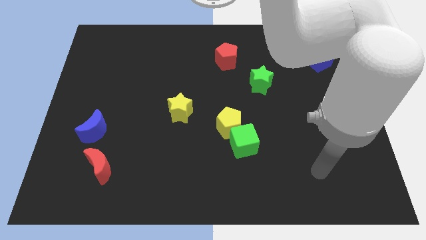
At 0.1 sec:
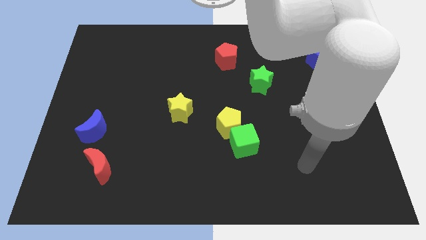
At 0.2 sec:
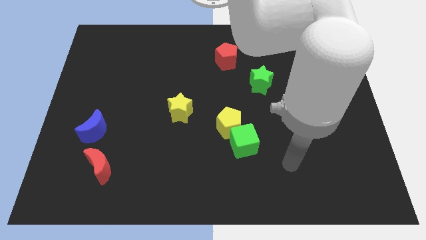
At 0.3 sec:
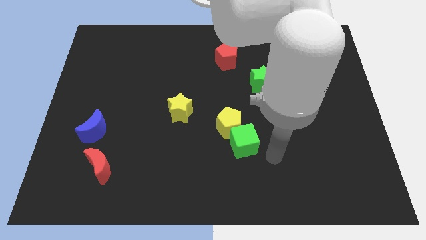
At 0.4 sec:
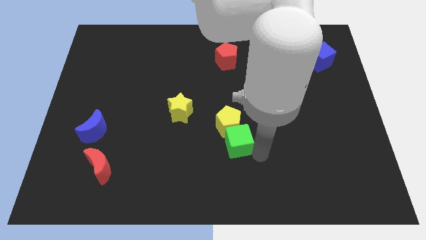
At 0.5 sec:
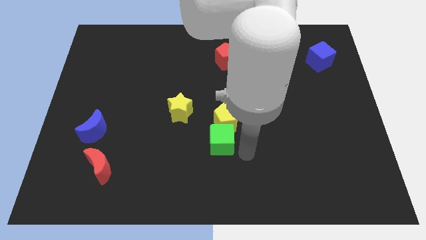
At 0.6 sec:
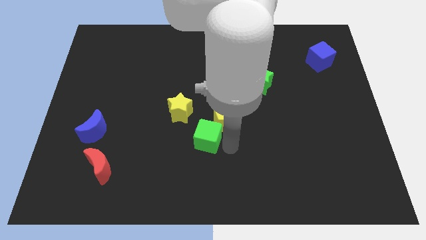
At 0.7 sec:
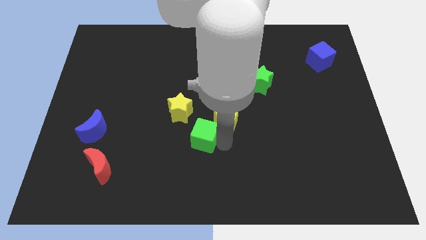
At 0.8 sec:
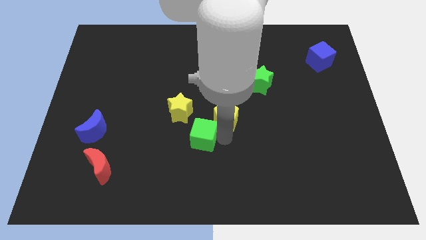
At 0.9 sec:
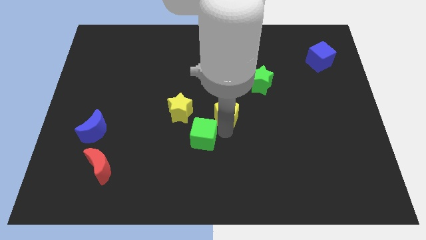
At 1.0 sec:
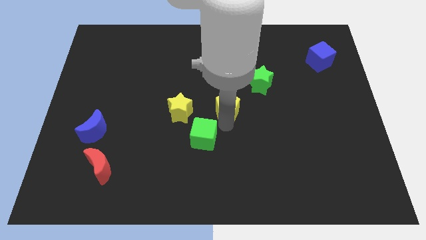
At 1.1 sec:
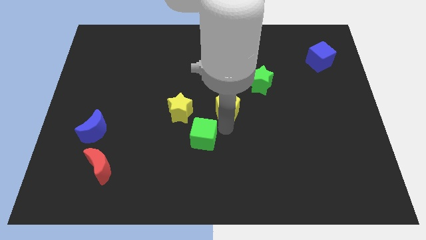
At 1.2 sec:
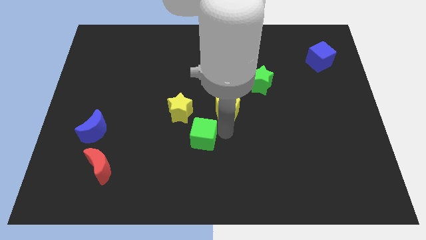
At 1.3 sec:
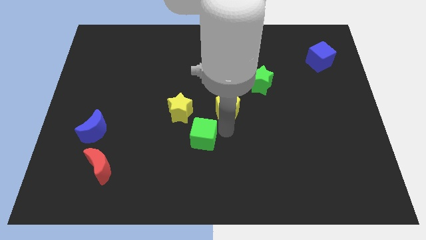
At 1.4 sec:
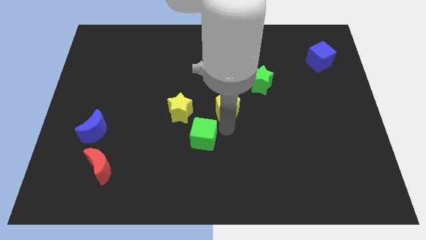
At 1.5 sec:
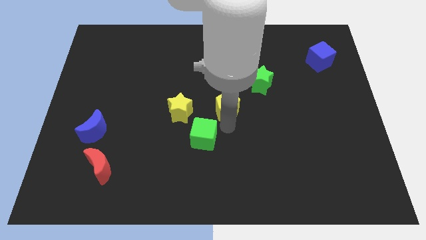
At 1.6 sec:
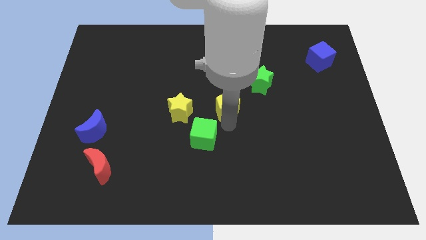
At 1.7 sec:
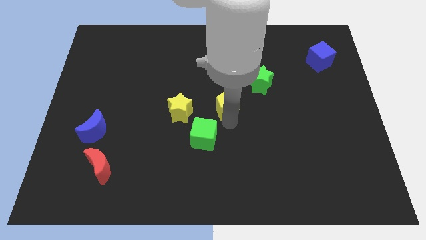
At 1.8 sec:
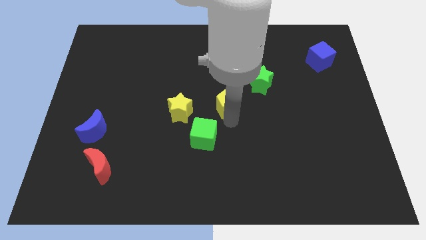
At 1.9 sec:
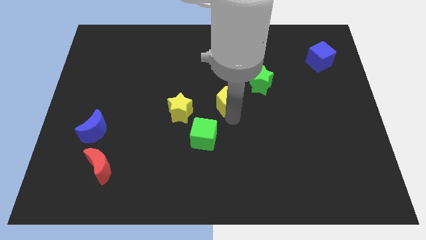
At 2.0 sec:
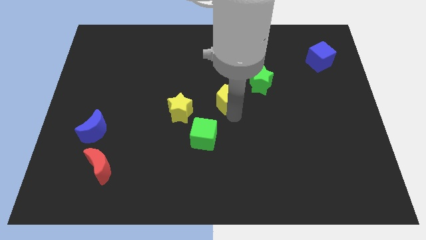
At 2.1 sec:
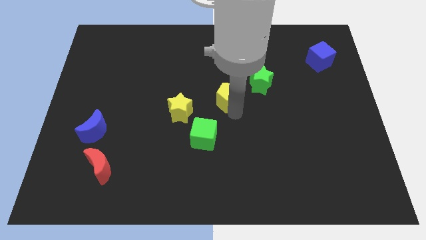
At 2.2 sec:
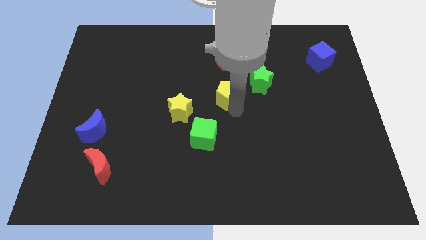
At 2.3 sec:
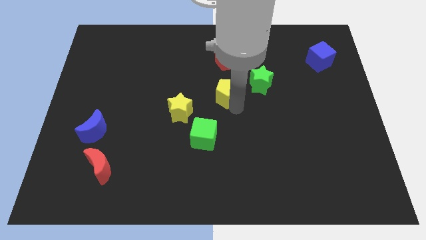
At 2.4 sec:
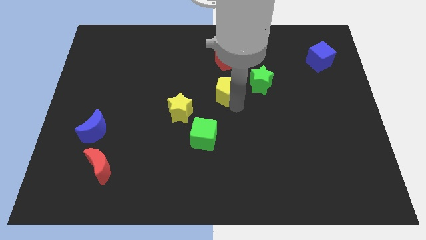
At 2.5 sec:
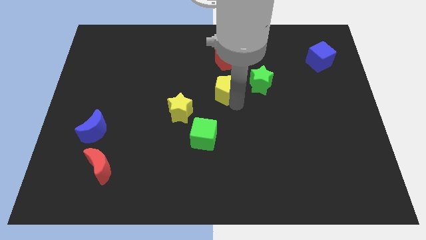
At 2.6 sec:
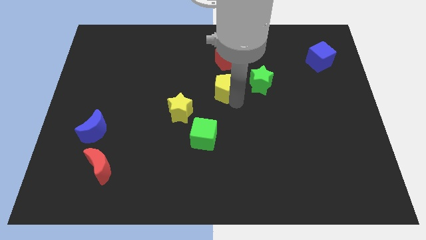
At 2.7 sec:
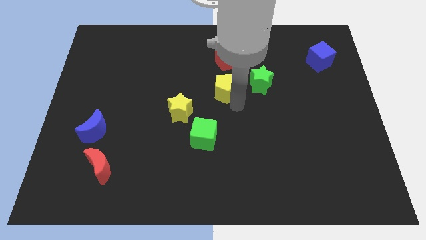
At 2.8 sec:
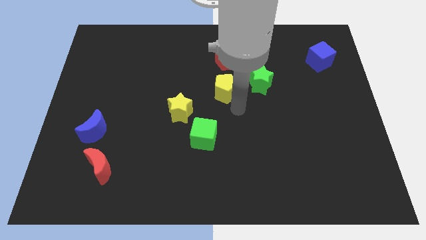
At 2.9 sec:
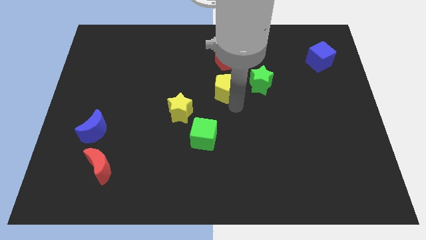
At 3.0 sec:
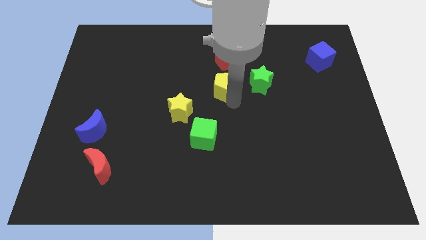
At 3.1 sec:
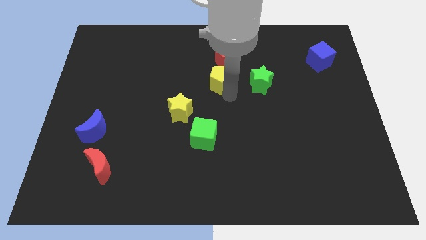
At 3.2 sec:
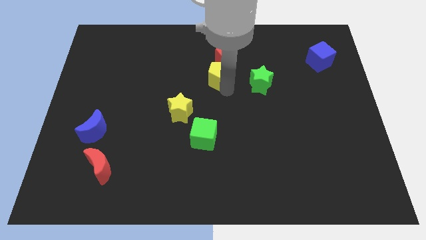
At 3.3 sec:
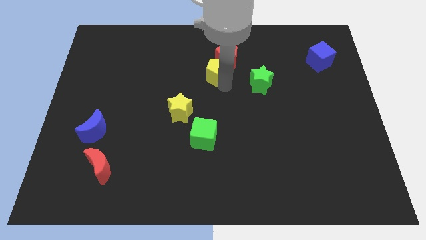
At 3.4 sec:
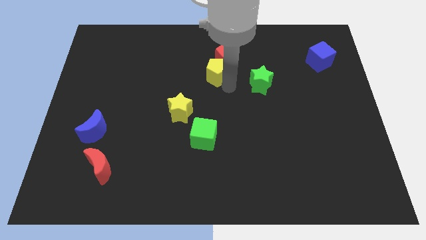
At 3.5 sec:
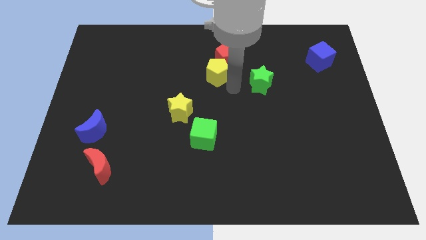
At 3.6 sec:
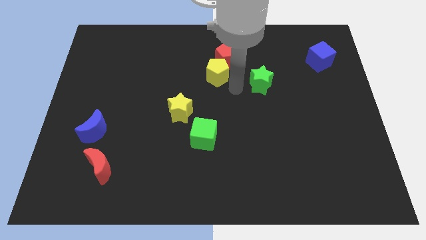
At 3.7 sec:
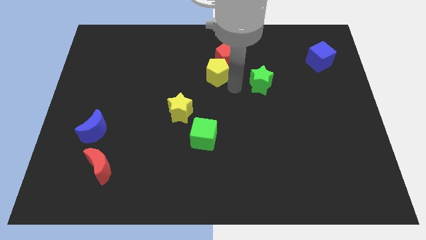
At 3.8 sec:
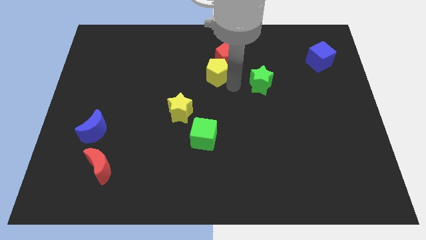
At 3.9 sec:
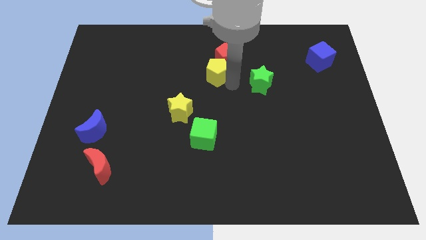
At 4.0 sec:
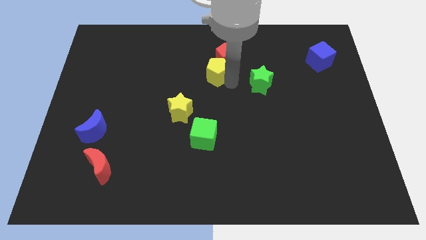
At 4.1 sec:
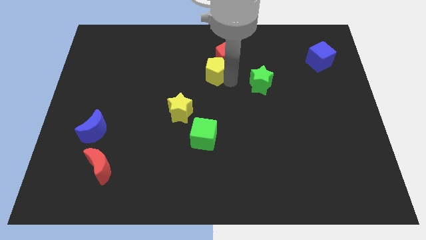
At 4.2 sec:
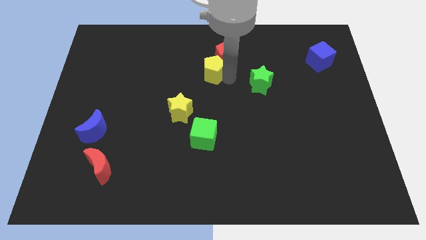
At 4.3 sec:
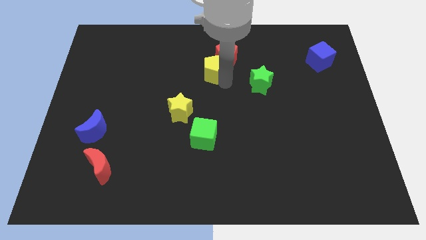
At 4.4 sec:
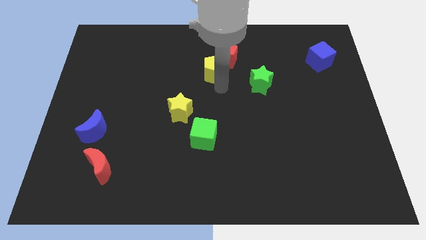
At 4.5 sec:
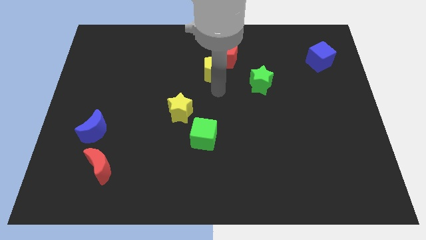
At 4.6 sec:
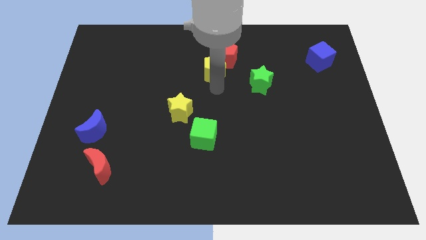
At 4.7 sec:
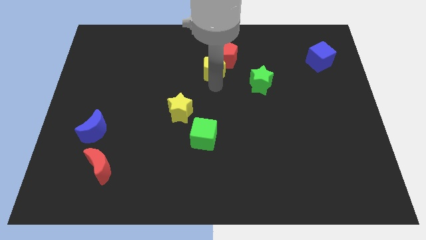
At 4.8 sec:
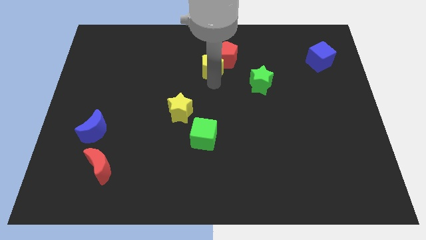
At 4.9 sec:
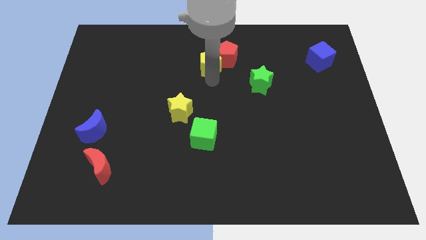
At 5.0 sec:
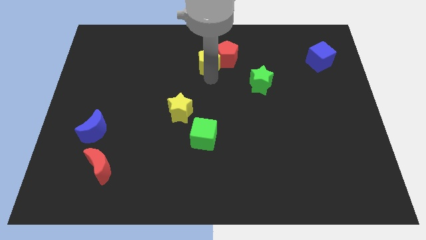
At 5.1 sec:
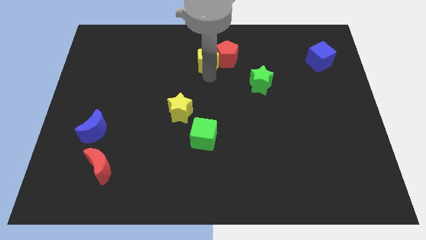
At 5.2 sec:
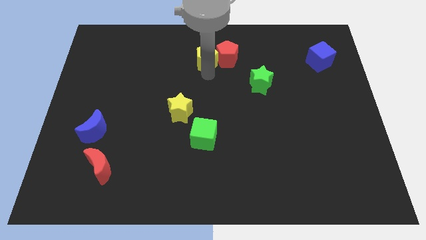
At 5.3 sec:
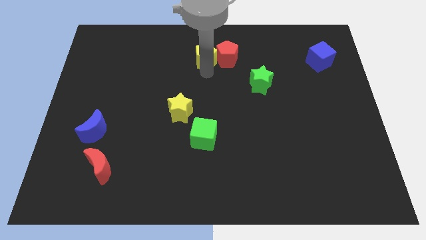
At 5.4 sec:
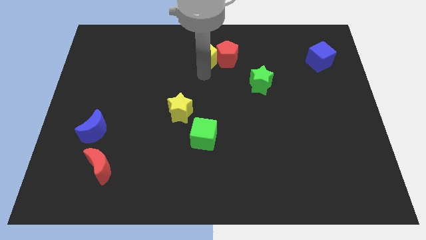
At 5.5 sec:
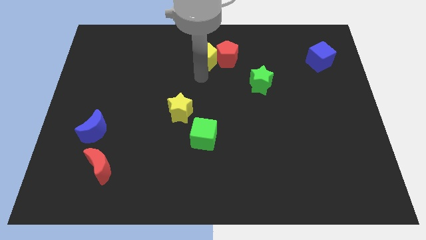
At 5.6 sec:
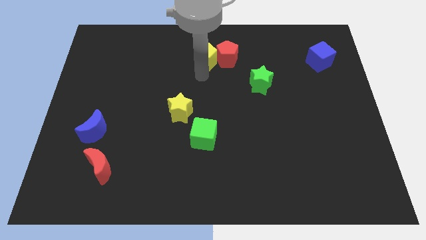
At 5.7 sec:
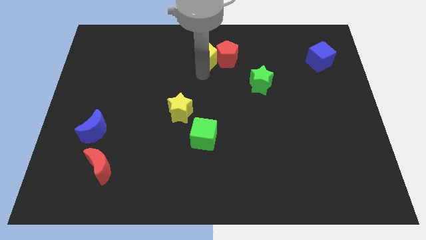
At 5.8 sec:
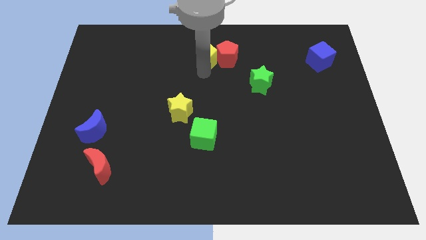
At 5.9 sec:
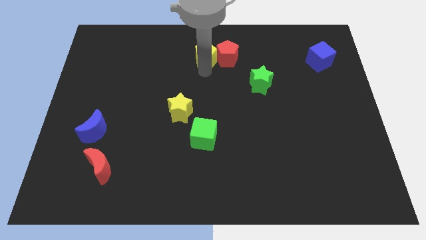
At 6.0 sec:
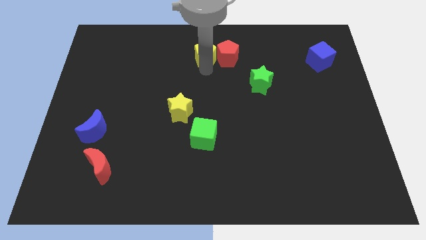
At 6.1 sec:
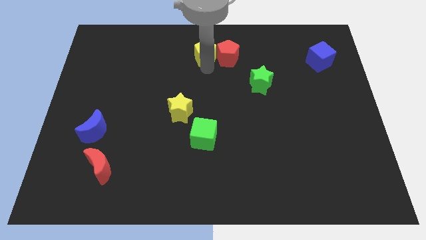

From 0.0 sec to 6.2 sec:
push the yellow pentagon to the towards your base

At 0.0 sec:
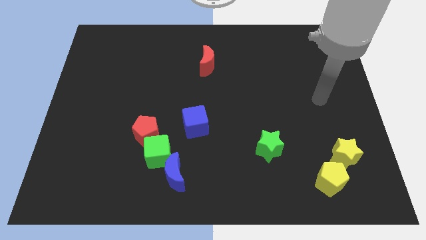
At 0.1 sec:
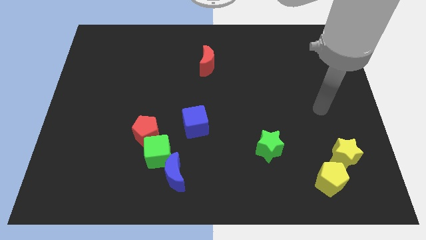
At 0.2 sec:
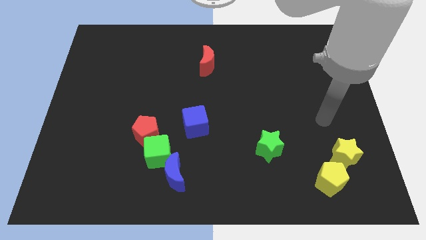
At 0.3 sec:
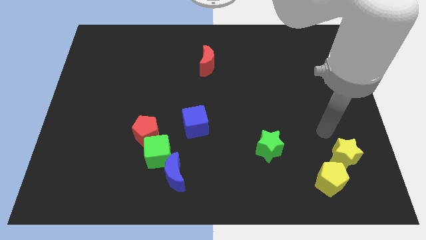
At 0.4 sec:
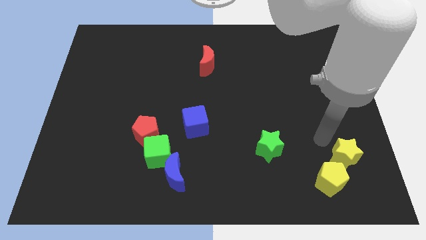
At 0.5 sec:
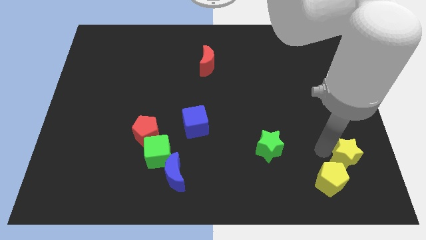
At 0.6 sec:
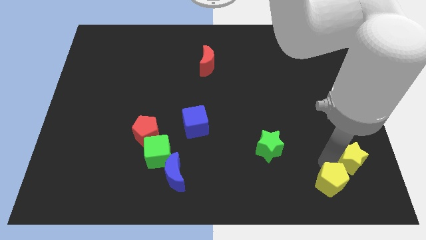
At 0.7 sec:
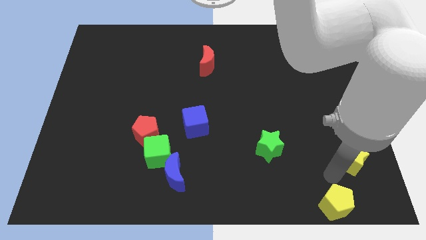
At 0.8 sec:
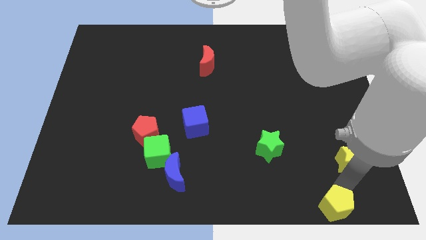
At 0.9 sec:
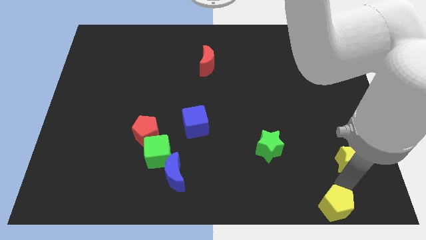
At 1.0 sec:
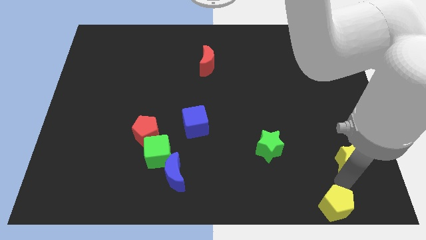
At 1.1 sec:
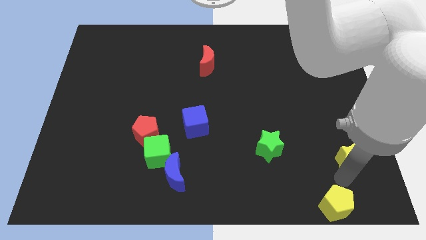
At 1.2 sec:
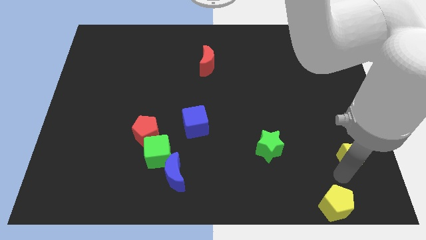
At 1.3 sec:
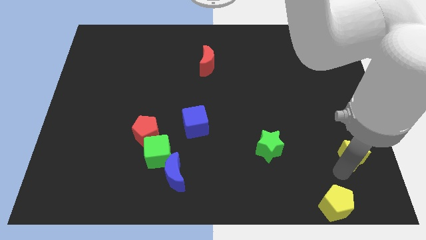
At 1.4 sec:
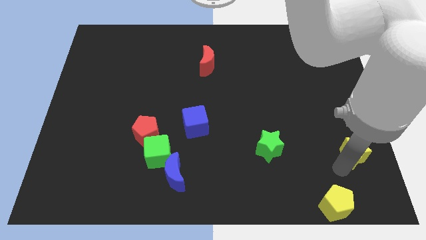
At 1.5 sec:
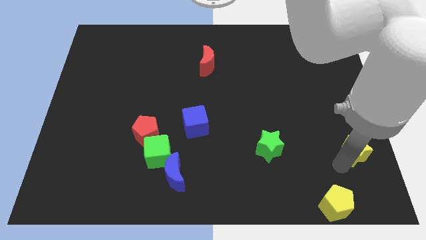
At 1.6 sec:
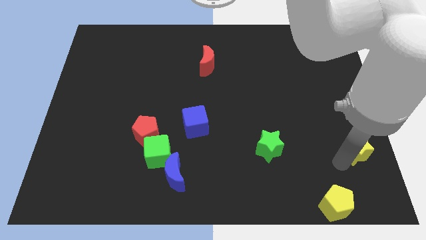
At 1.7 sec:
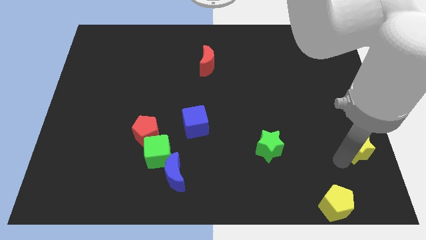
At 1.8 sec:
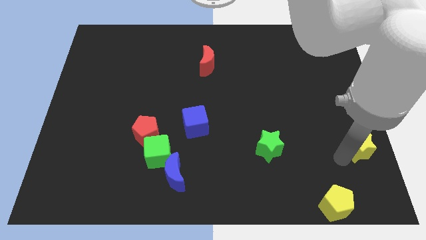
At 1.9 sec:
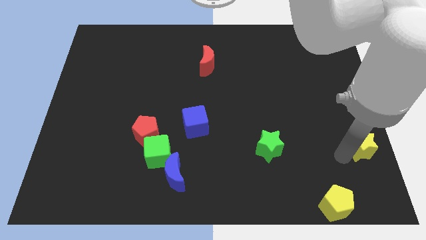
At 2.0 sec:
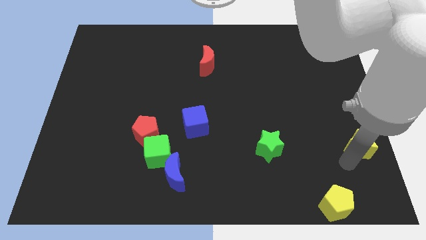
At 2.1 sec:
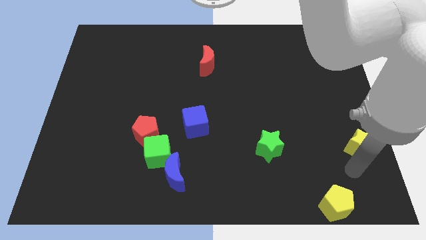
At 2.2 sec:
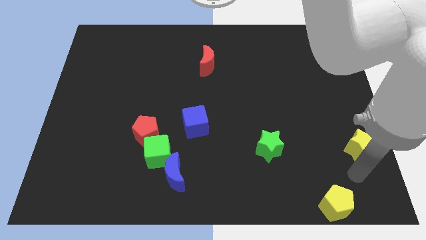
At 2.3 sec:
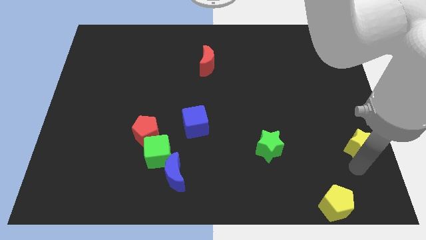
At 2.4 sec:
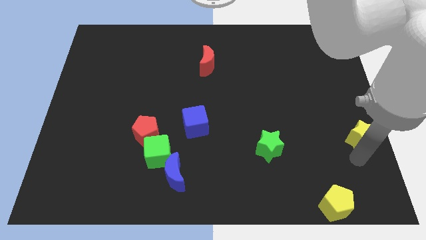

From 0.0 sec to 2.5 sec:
slide the yellow star to the right side of the board
